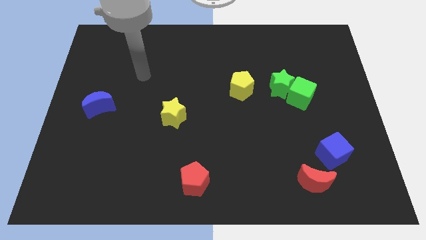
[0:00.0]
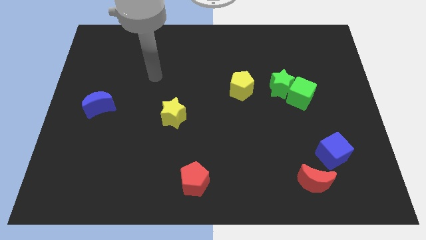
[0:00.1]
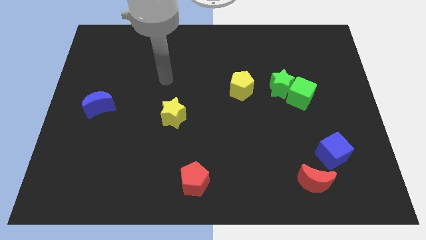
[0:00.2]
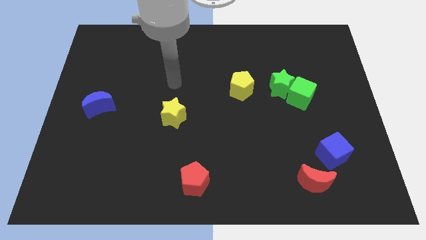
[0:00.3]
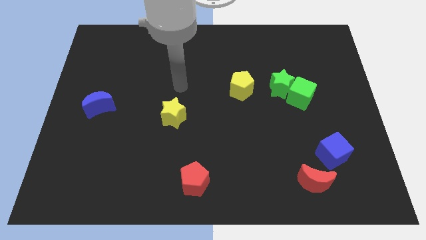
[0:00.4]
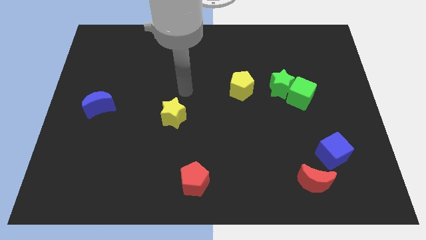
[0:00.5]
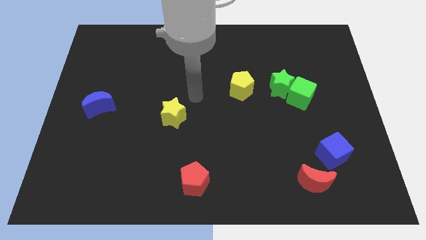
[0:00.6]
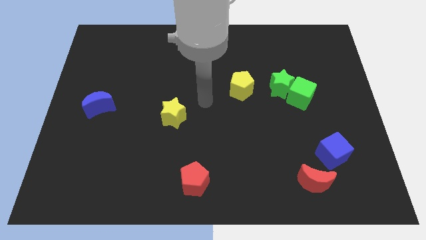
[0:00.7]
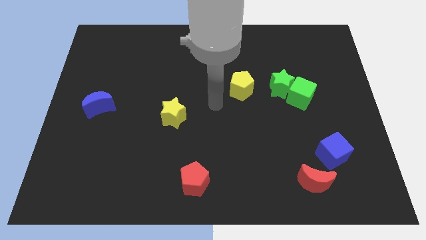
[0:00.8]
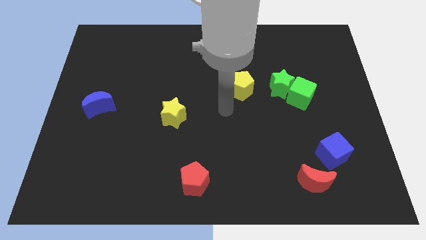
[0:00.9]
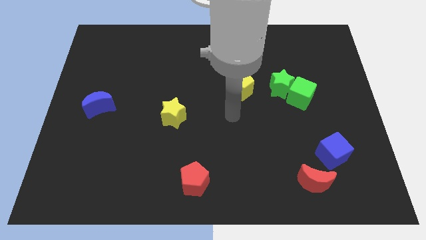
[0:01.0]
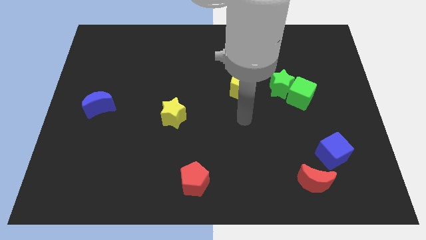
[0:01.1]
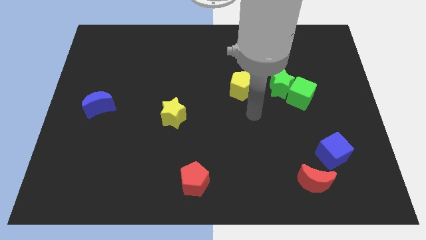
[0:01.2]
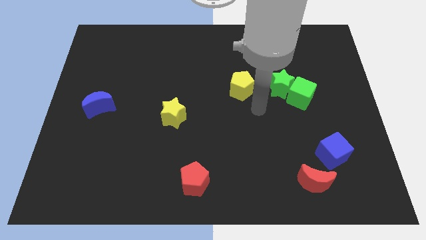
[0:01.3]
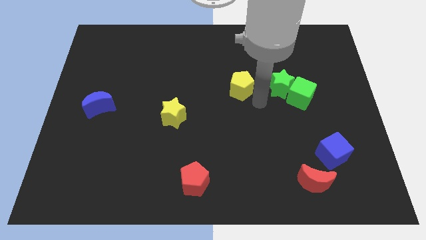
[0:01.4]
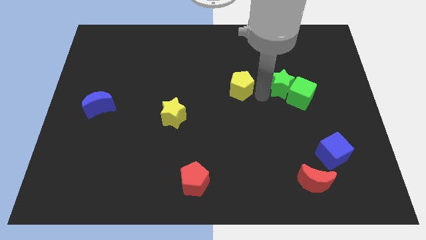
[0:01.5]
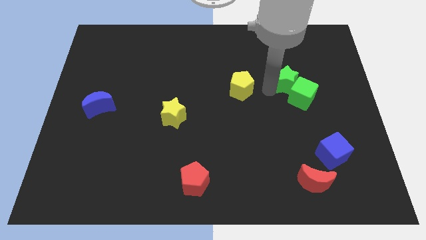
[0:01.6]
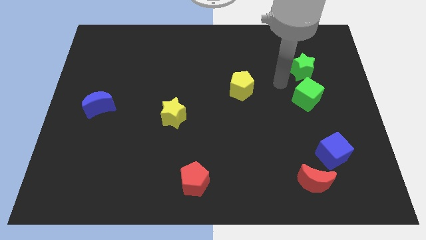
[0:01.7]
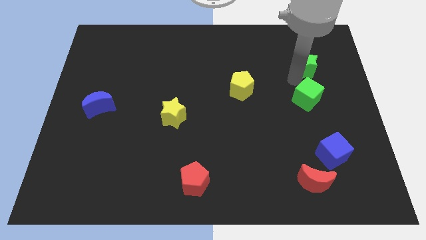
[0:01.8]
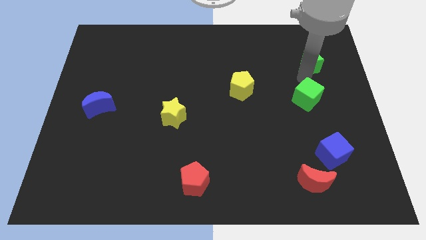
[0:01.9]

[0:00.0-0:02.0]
move the green cube away from the green star

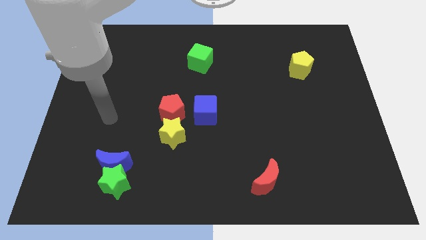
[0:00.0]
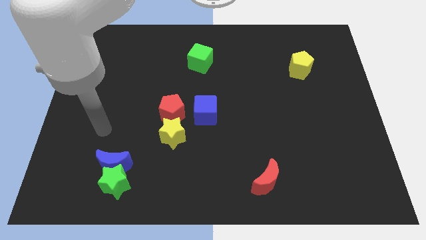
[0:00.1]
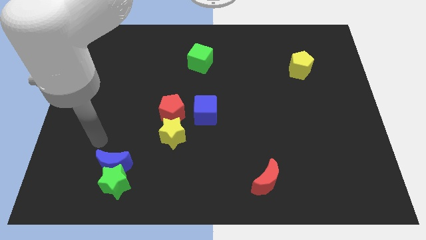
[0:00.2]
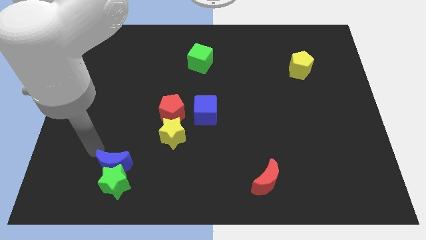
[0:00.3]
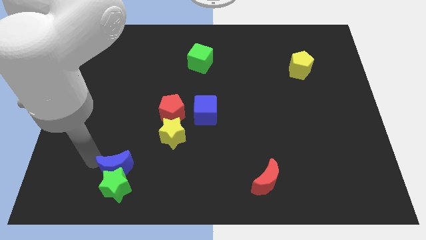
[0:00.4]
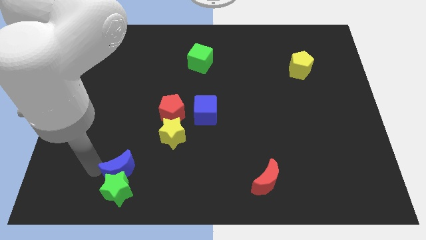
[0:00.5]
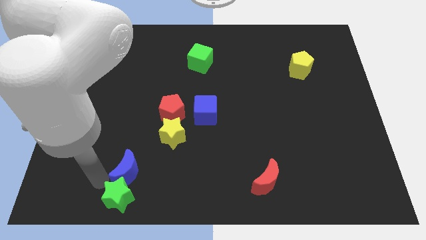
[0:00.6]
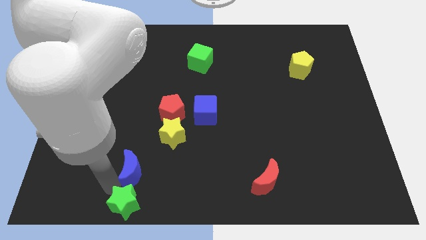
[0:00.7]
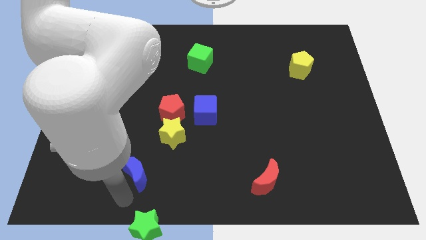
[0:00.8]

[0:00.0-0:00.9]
separate the blue moon from the green star

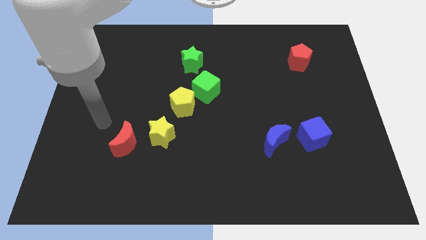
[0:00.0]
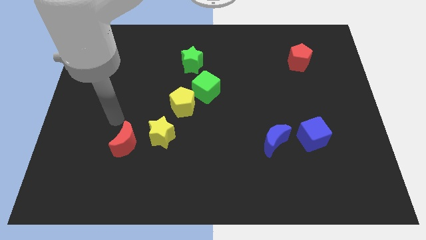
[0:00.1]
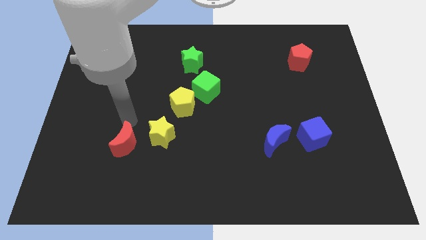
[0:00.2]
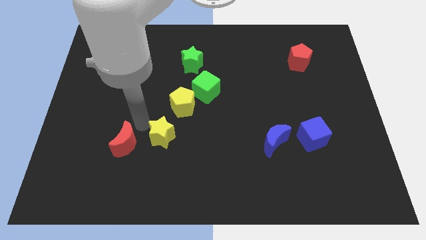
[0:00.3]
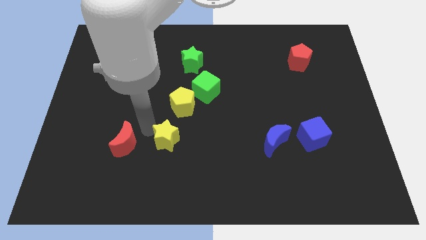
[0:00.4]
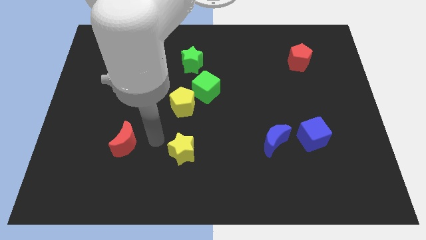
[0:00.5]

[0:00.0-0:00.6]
separate the red moon from the yellow star

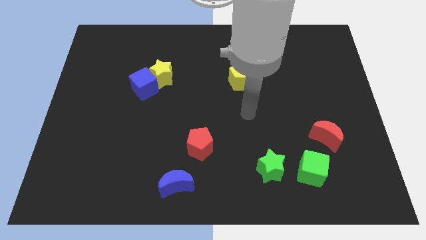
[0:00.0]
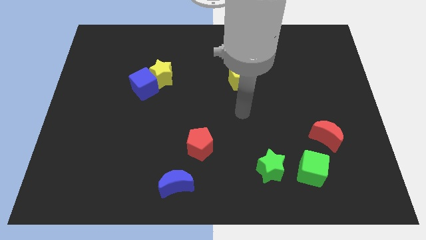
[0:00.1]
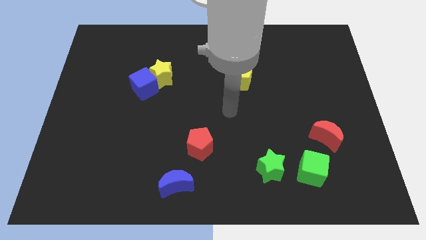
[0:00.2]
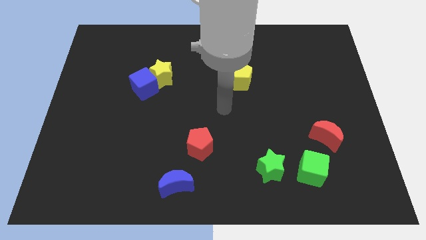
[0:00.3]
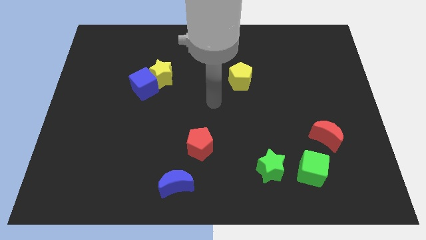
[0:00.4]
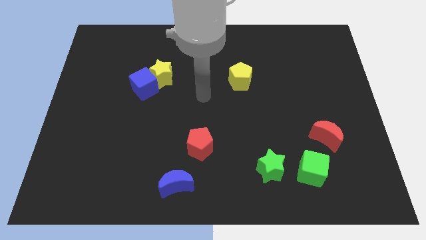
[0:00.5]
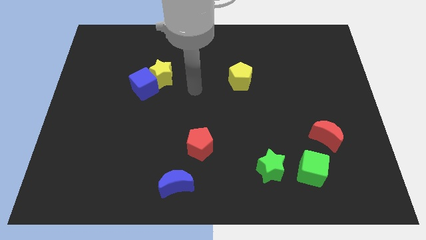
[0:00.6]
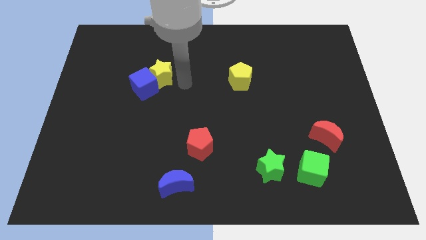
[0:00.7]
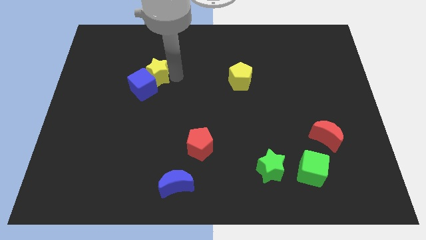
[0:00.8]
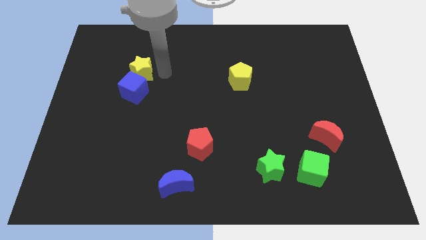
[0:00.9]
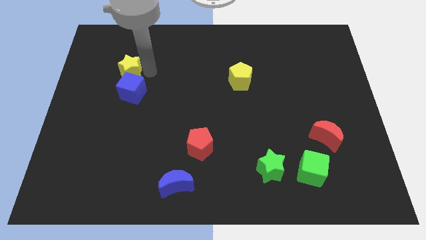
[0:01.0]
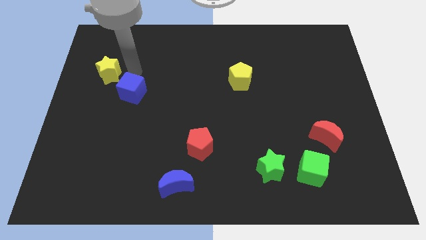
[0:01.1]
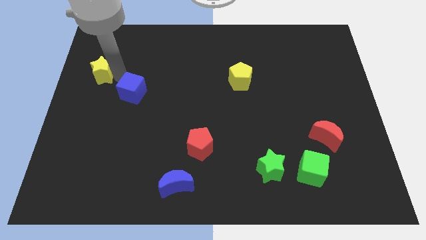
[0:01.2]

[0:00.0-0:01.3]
move the blue cube away from the yellow star

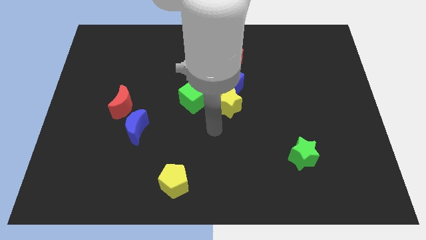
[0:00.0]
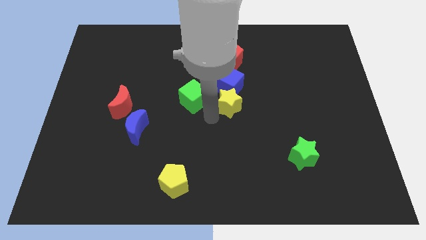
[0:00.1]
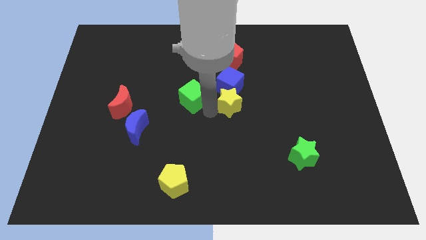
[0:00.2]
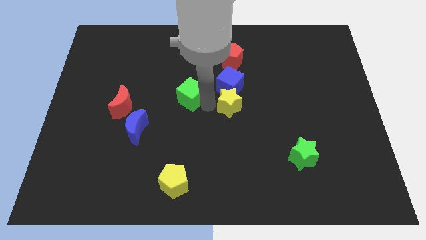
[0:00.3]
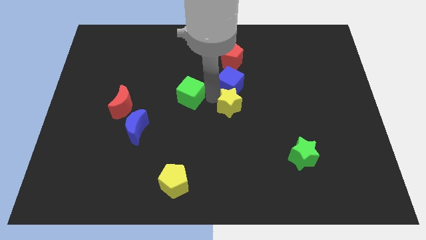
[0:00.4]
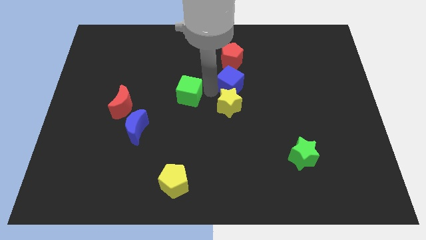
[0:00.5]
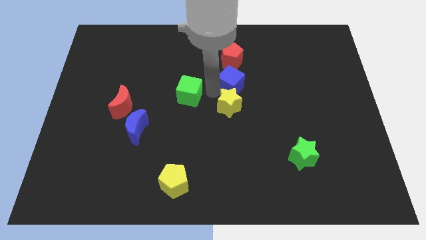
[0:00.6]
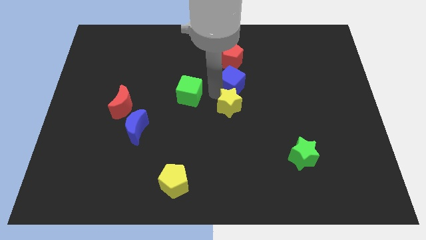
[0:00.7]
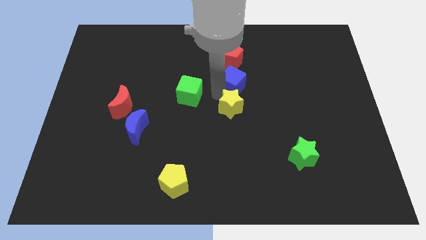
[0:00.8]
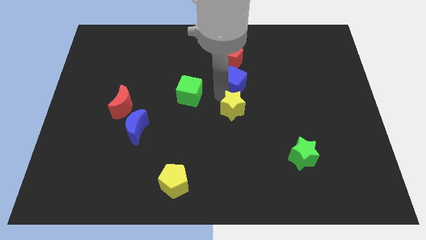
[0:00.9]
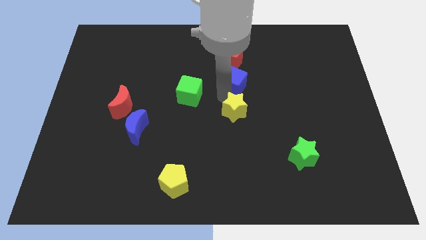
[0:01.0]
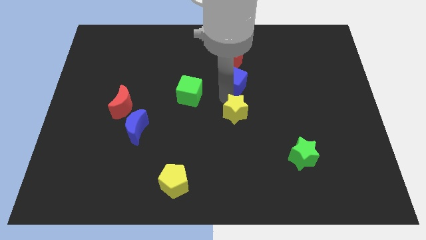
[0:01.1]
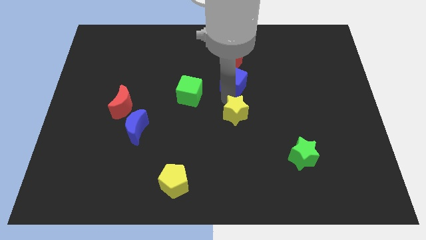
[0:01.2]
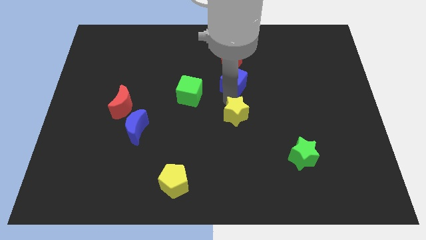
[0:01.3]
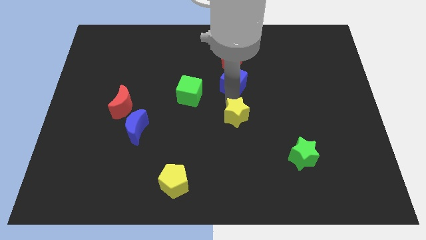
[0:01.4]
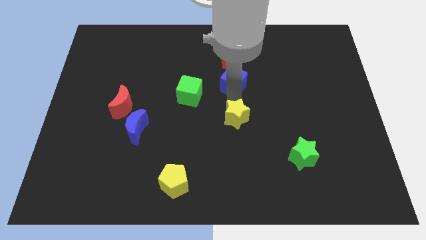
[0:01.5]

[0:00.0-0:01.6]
separate the yellow star from the blue cube and green cube

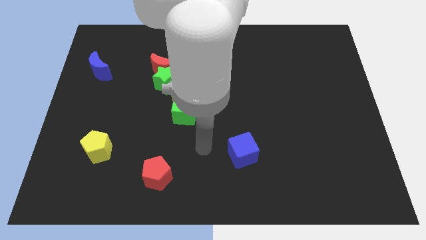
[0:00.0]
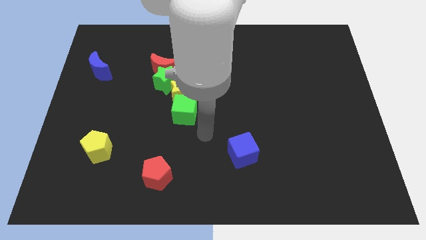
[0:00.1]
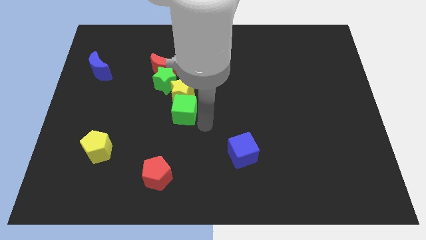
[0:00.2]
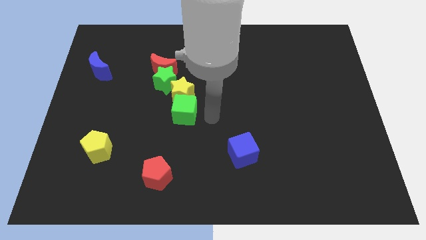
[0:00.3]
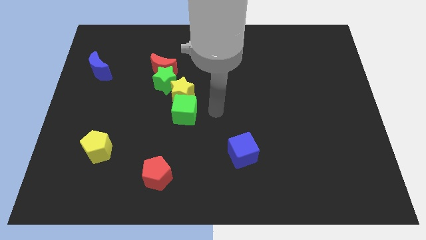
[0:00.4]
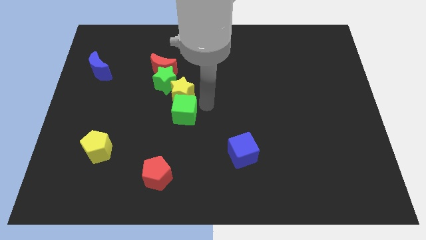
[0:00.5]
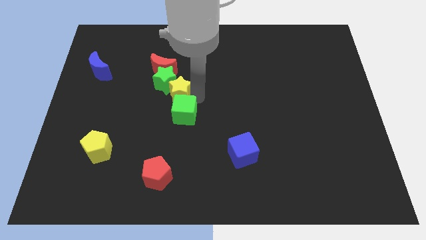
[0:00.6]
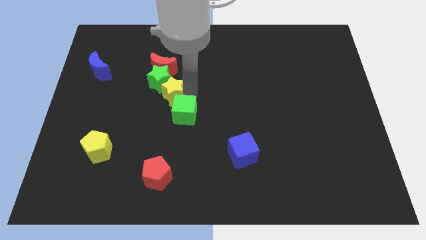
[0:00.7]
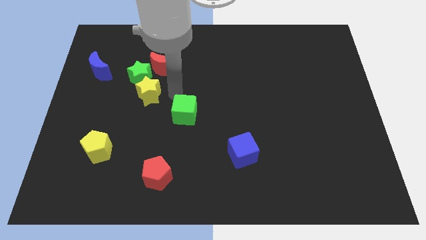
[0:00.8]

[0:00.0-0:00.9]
separate the green cube from the yellow star

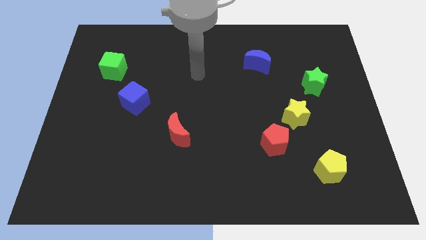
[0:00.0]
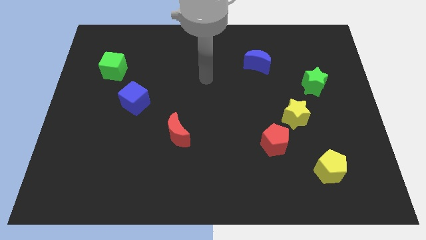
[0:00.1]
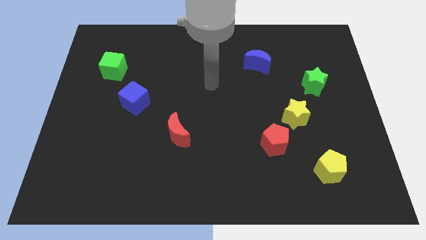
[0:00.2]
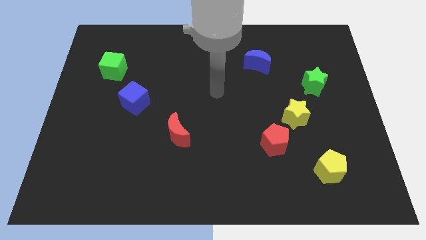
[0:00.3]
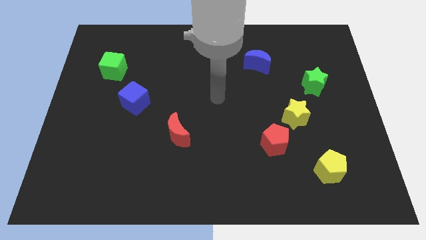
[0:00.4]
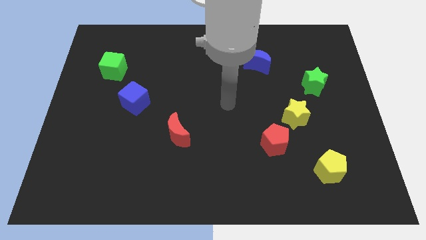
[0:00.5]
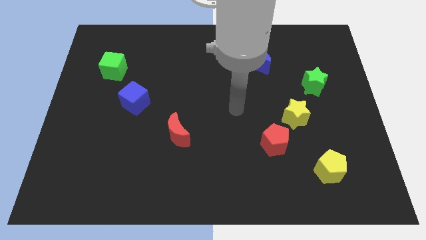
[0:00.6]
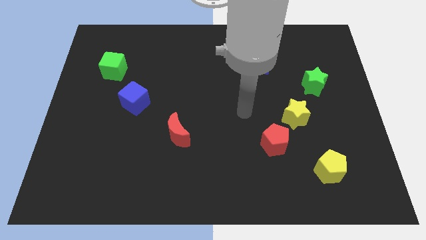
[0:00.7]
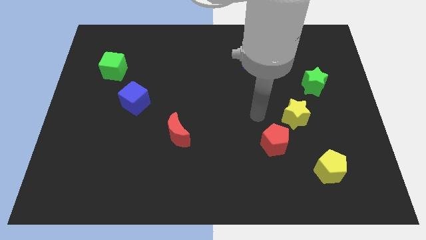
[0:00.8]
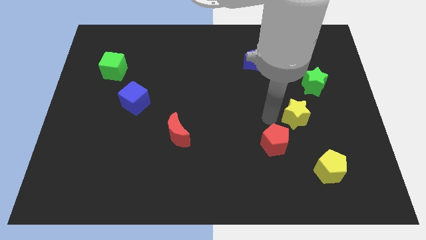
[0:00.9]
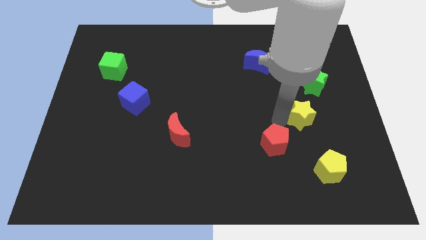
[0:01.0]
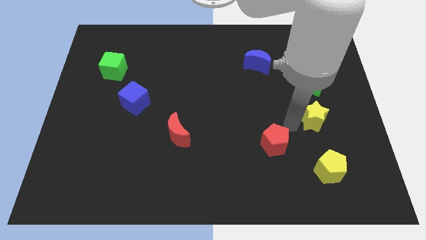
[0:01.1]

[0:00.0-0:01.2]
pull the red pentagon apart from the yellow star

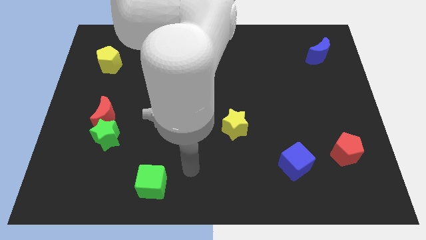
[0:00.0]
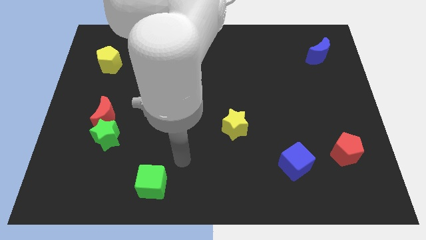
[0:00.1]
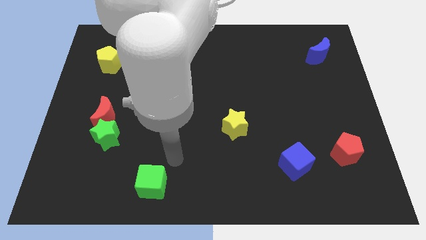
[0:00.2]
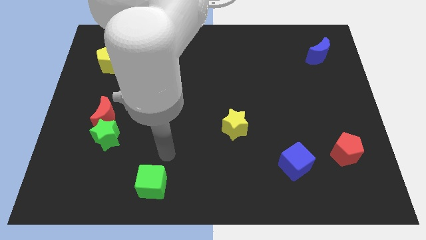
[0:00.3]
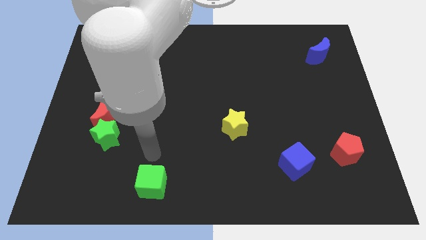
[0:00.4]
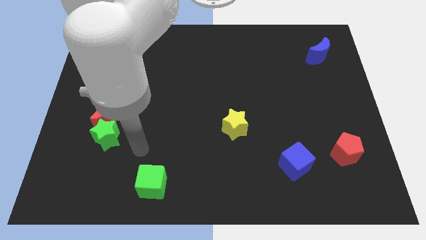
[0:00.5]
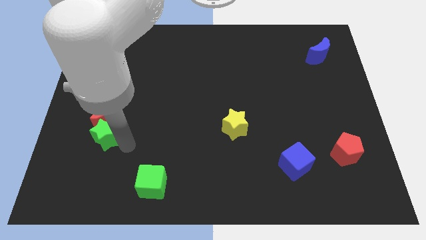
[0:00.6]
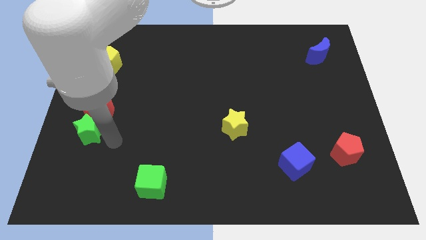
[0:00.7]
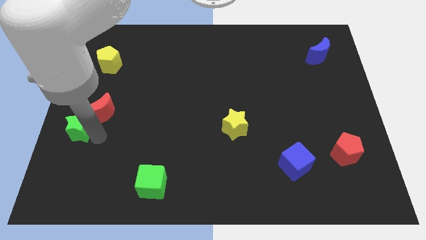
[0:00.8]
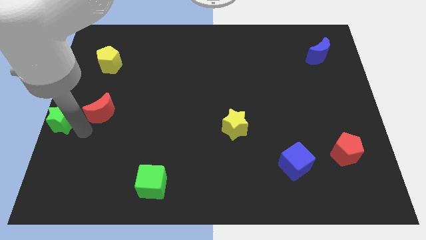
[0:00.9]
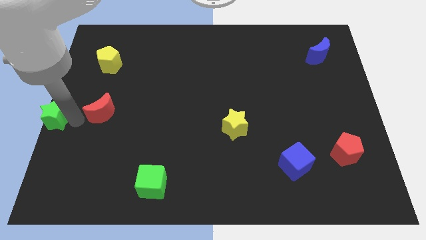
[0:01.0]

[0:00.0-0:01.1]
separate the red moon from the green star
